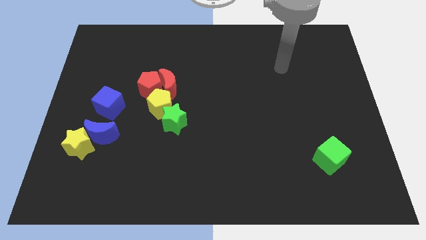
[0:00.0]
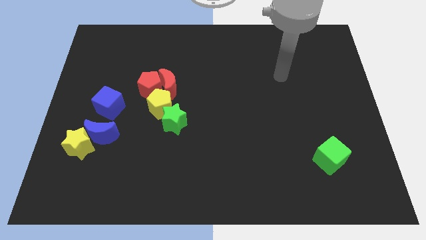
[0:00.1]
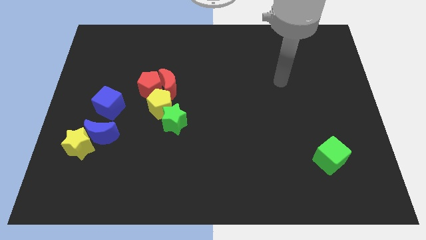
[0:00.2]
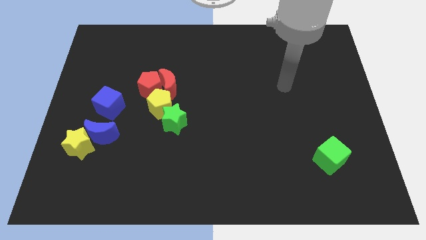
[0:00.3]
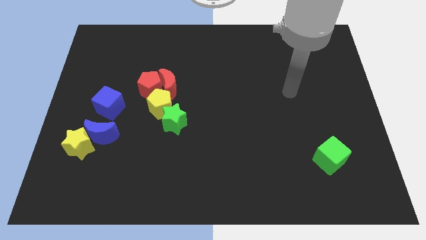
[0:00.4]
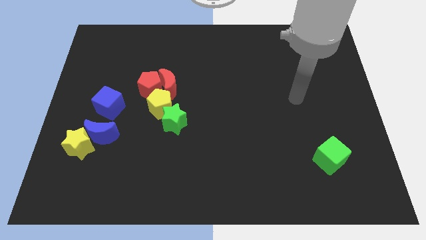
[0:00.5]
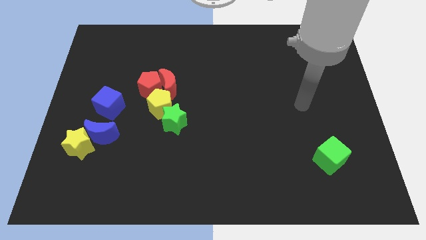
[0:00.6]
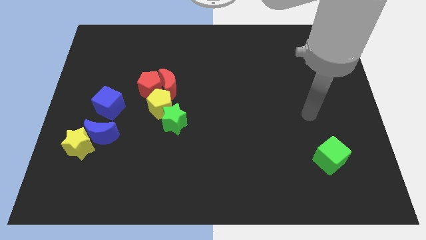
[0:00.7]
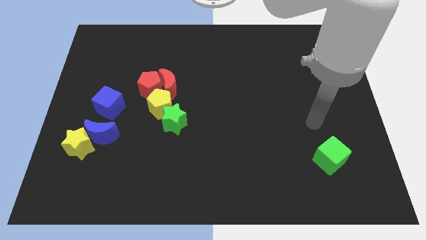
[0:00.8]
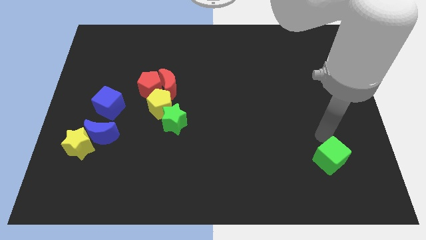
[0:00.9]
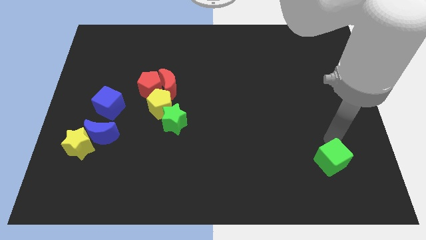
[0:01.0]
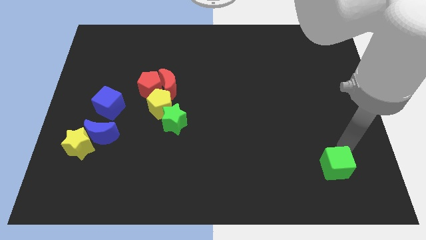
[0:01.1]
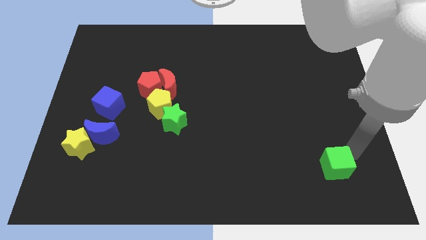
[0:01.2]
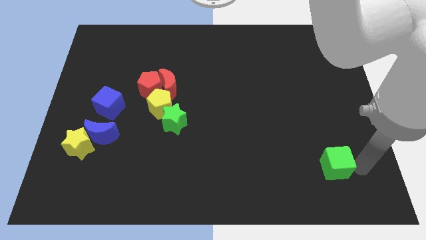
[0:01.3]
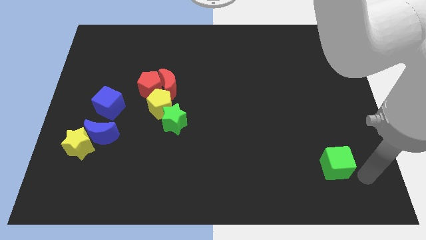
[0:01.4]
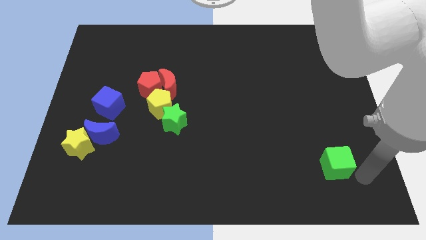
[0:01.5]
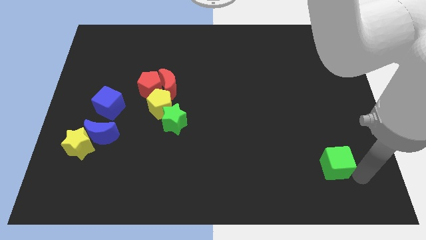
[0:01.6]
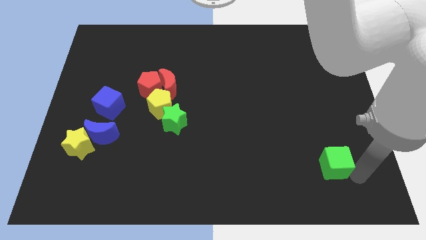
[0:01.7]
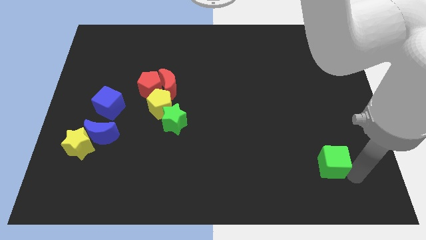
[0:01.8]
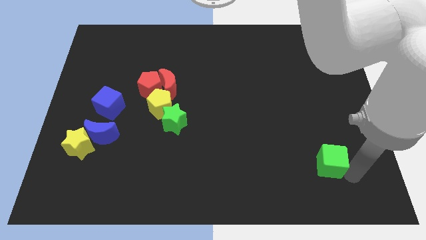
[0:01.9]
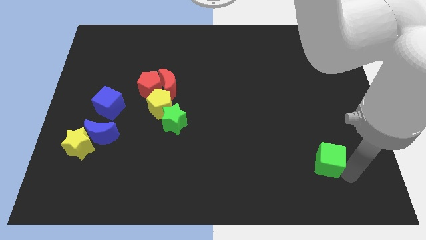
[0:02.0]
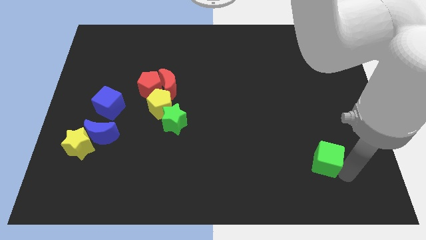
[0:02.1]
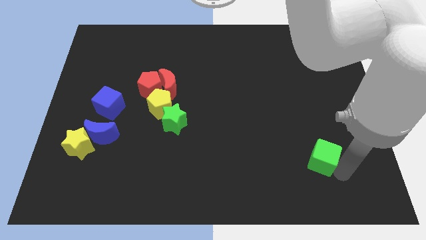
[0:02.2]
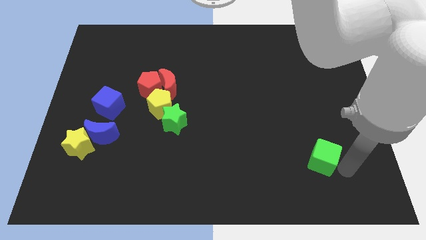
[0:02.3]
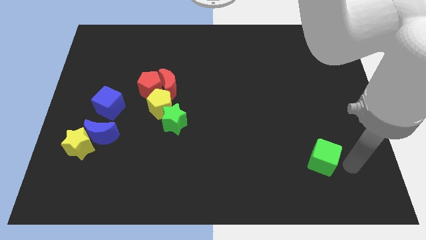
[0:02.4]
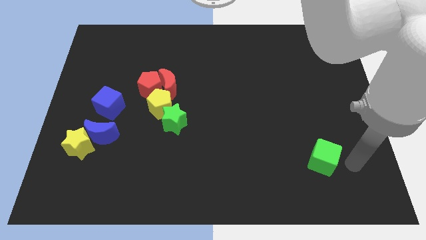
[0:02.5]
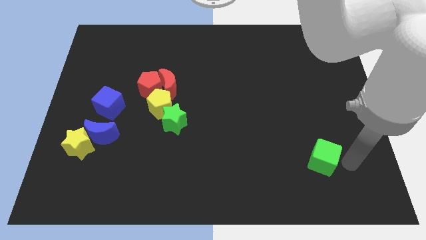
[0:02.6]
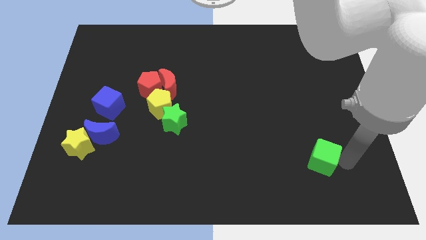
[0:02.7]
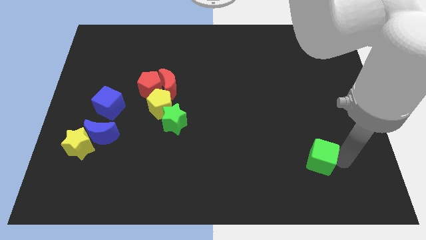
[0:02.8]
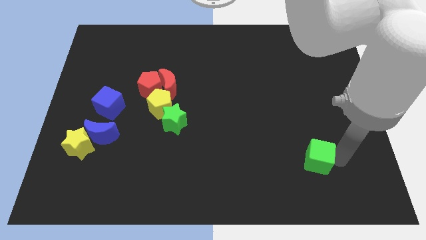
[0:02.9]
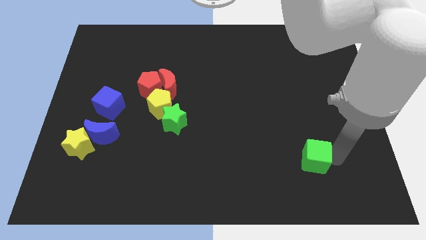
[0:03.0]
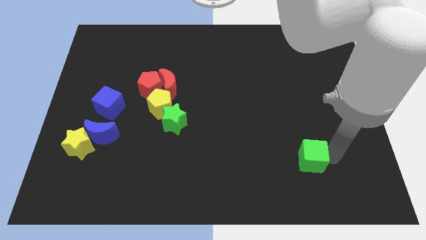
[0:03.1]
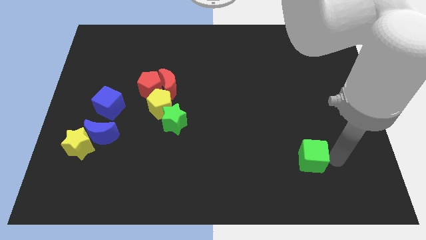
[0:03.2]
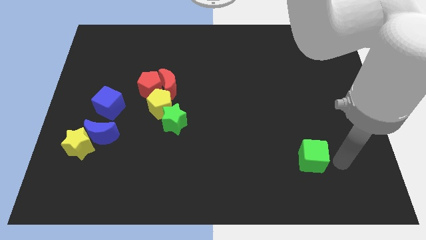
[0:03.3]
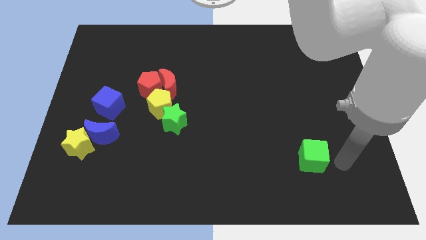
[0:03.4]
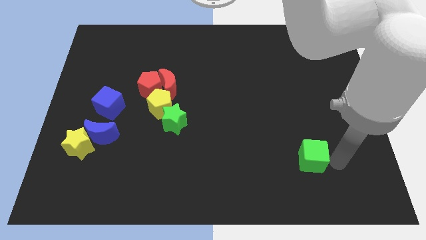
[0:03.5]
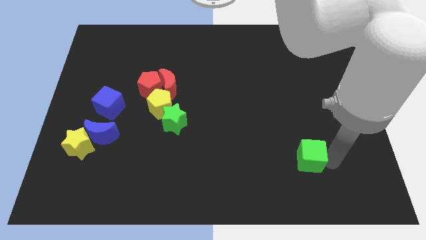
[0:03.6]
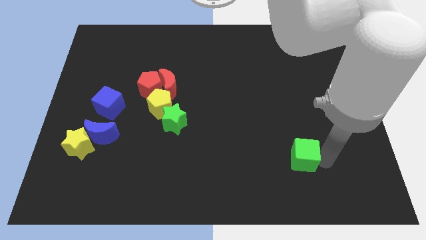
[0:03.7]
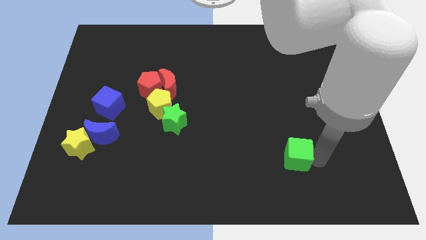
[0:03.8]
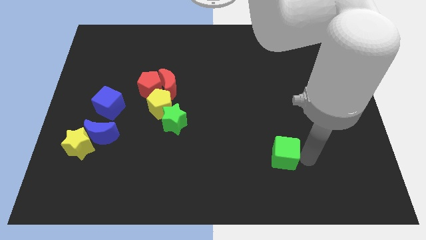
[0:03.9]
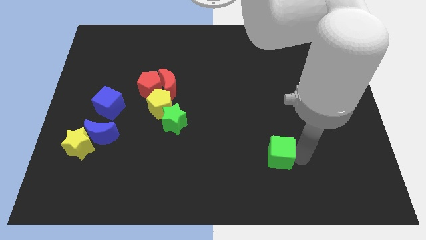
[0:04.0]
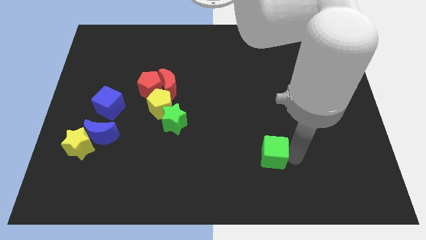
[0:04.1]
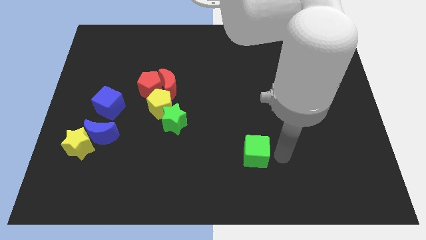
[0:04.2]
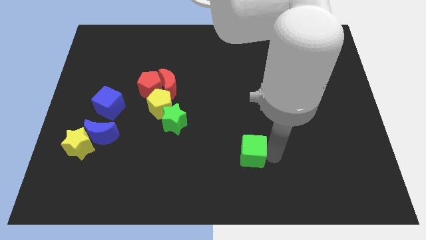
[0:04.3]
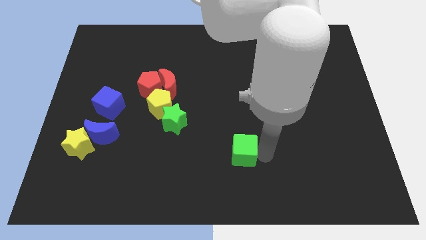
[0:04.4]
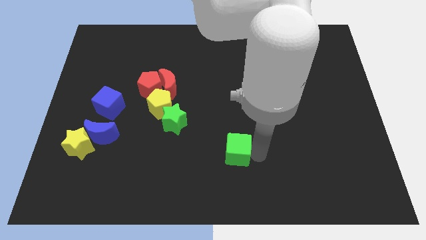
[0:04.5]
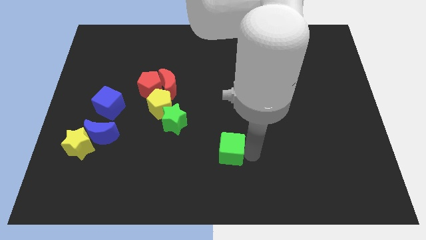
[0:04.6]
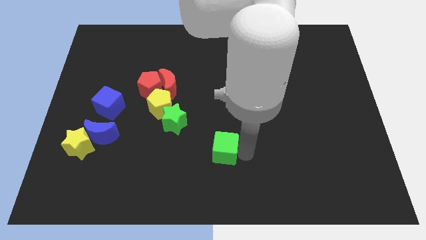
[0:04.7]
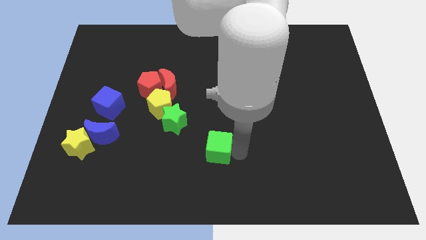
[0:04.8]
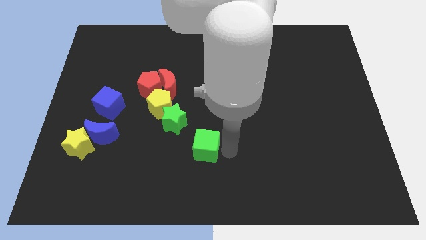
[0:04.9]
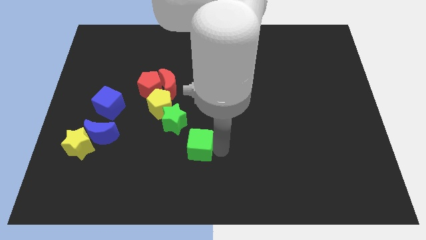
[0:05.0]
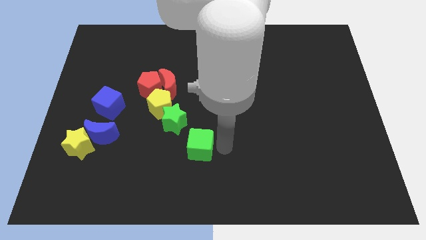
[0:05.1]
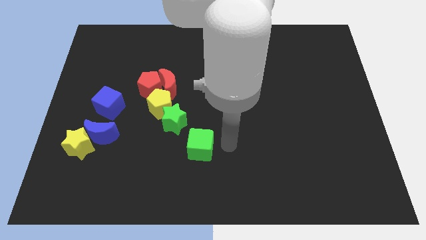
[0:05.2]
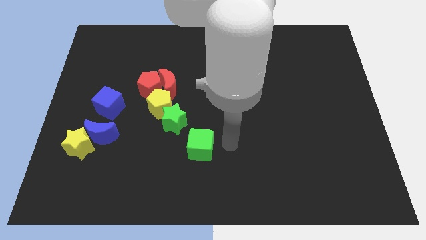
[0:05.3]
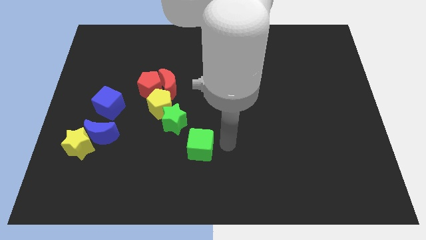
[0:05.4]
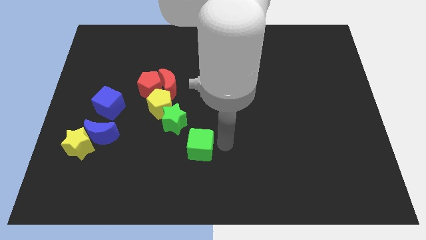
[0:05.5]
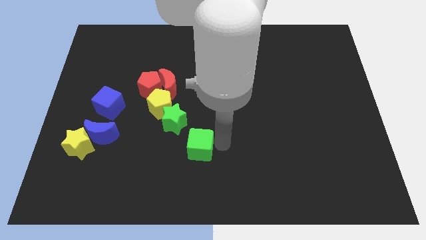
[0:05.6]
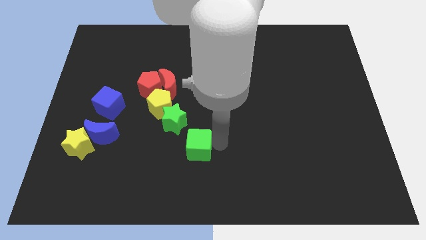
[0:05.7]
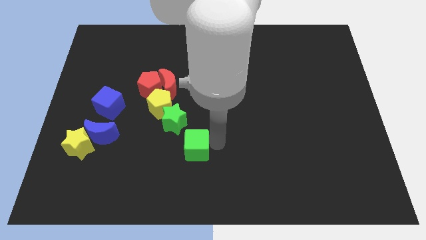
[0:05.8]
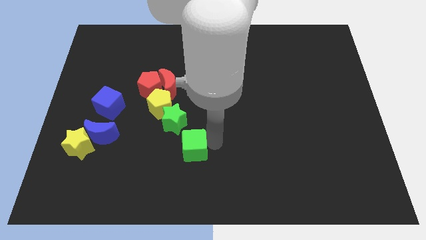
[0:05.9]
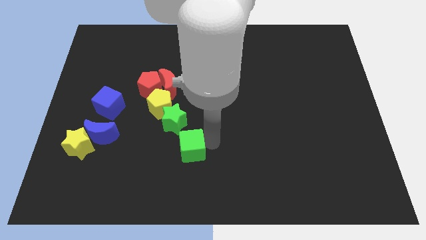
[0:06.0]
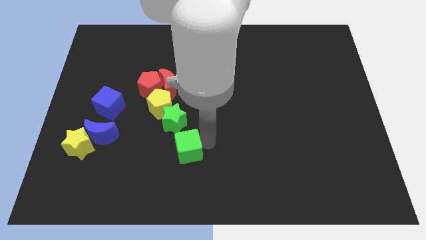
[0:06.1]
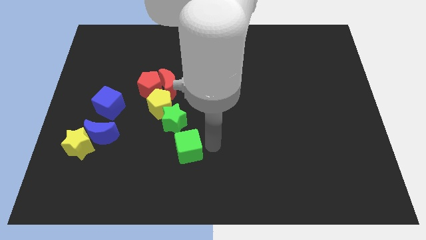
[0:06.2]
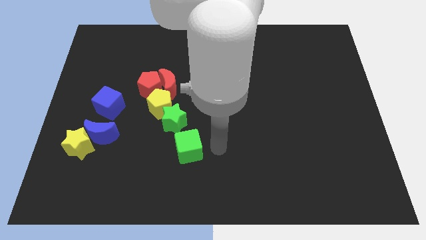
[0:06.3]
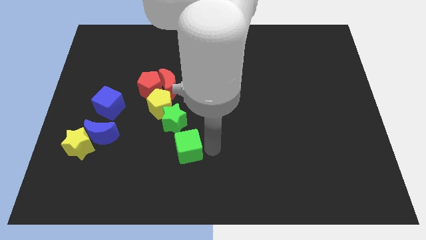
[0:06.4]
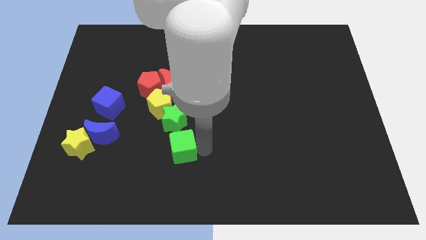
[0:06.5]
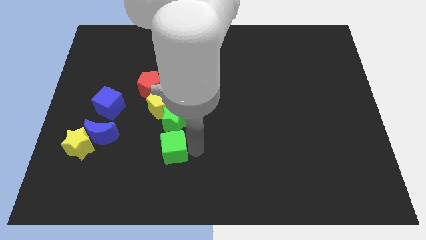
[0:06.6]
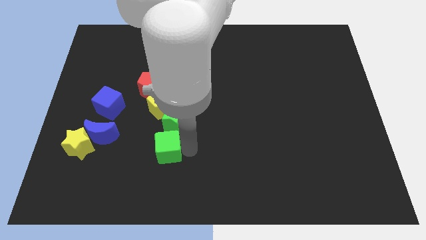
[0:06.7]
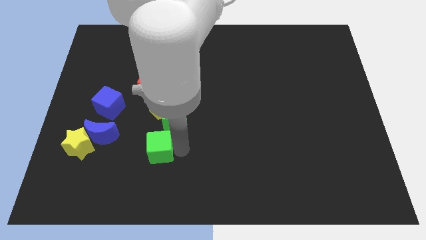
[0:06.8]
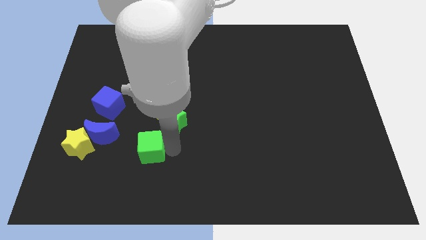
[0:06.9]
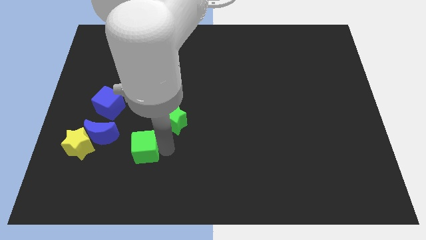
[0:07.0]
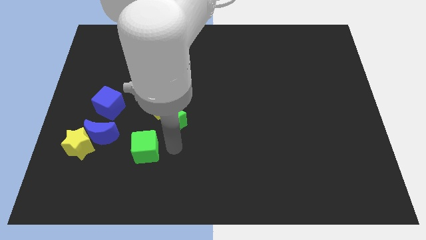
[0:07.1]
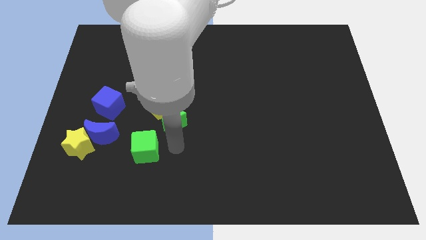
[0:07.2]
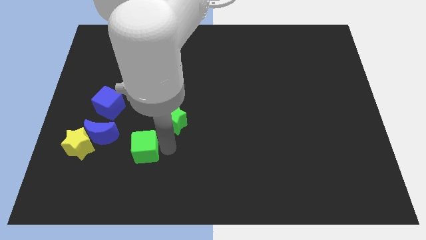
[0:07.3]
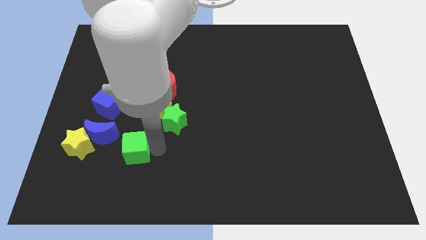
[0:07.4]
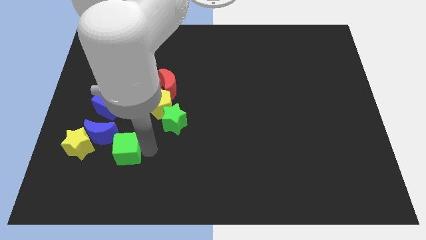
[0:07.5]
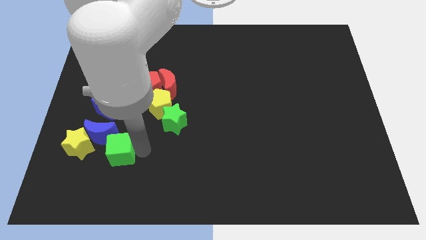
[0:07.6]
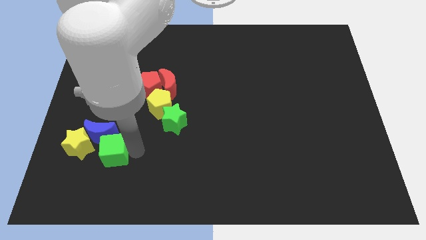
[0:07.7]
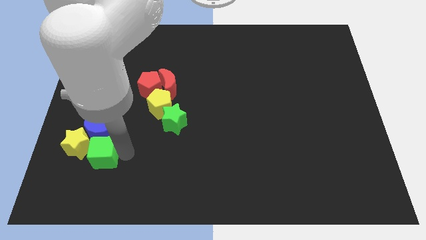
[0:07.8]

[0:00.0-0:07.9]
slide the green cube close to the yellow star
